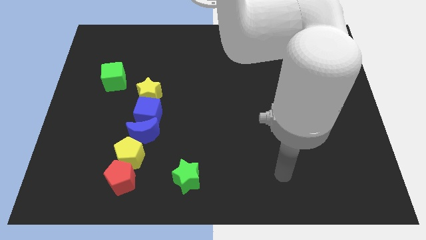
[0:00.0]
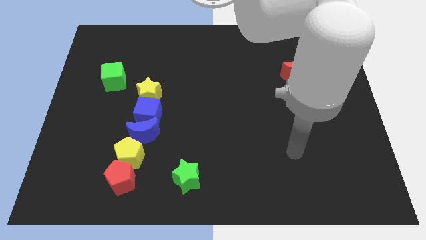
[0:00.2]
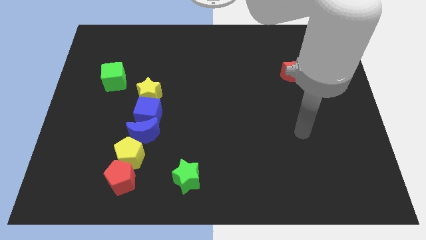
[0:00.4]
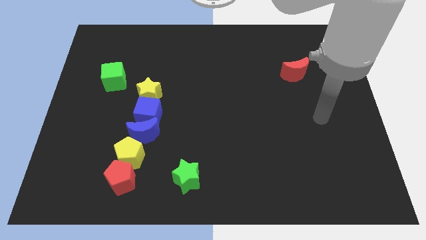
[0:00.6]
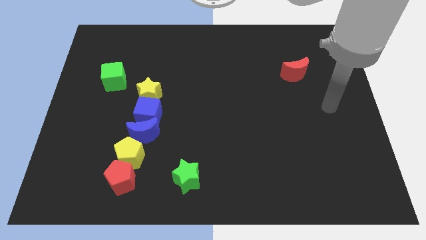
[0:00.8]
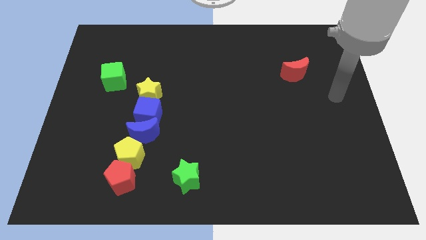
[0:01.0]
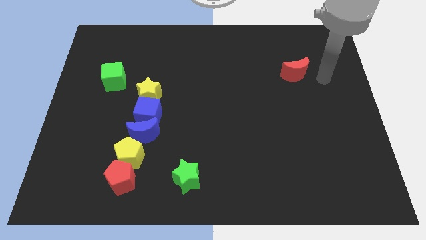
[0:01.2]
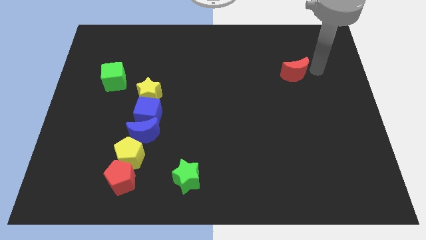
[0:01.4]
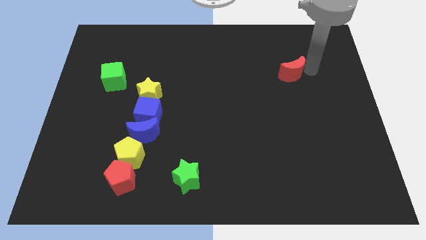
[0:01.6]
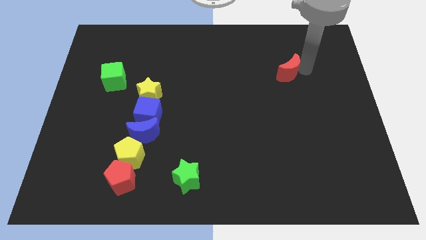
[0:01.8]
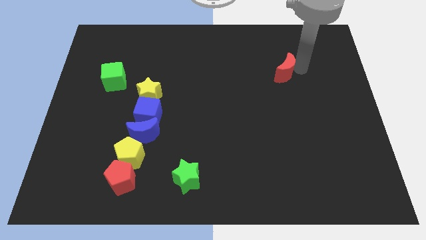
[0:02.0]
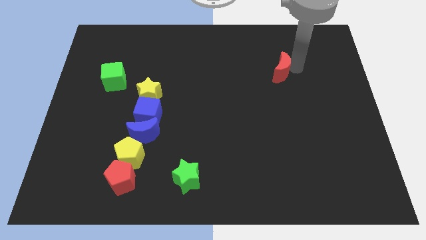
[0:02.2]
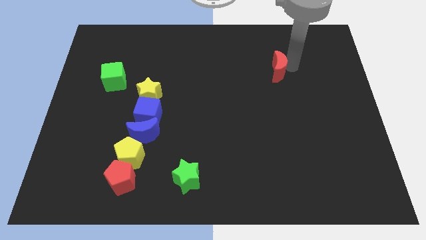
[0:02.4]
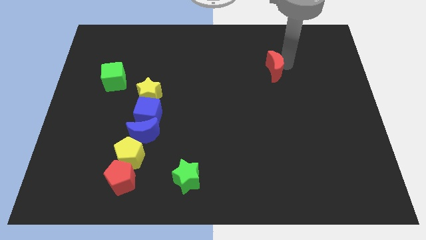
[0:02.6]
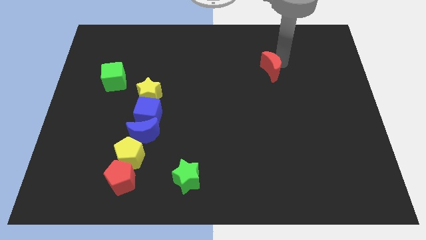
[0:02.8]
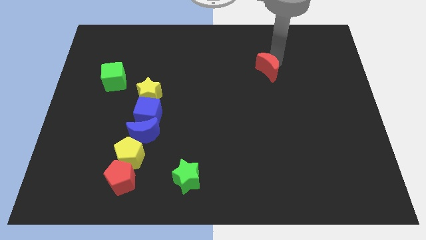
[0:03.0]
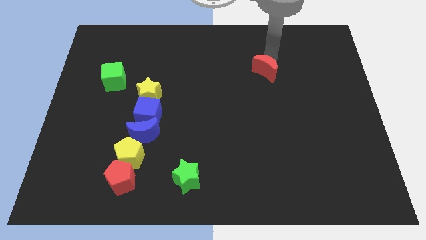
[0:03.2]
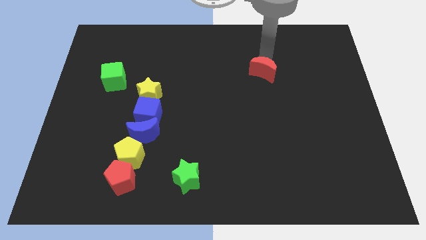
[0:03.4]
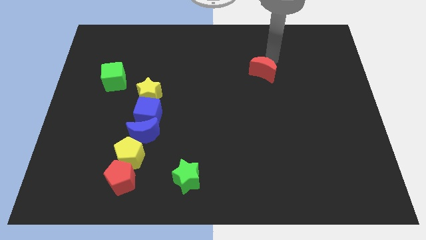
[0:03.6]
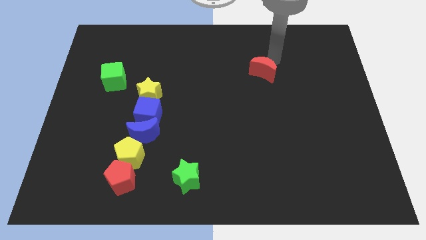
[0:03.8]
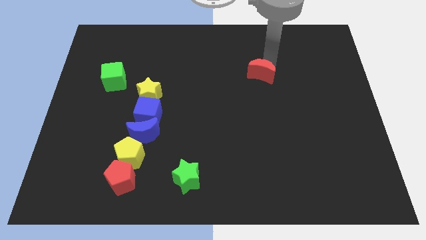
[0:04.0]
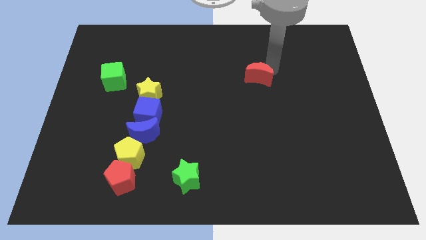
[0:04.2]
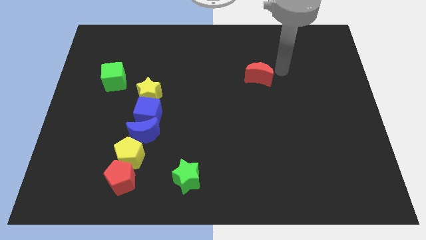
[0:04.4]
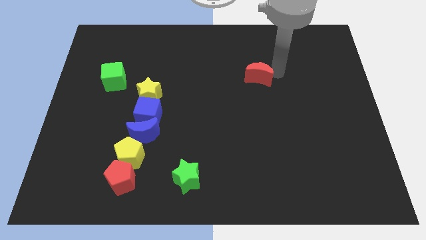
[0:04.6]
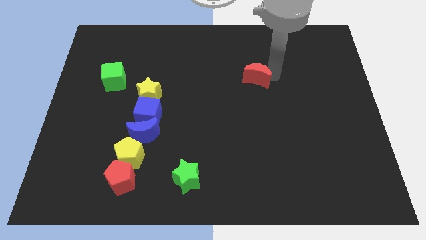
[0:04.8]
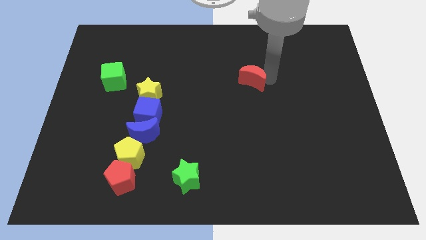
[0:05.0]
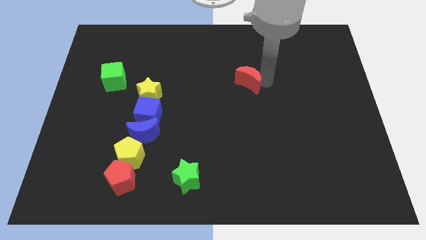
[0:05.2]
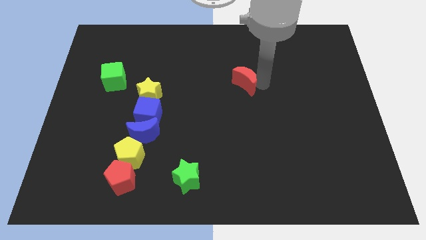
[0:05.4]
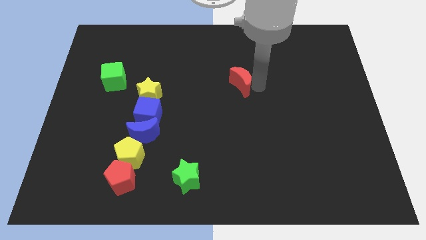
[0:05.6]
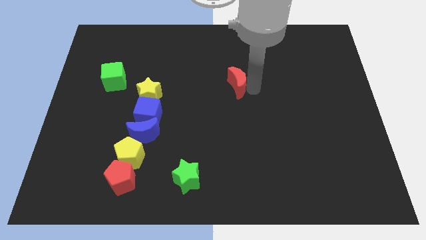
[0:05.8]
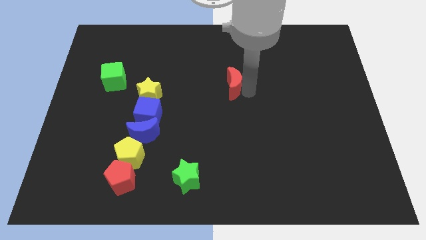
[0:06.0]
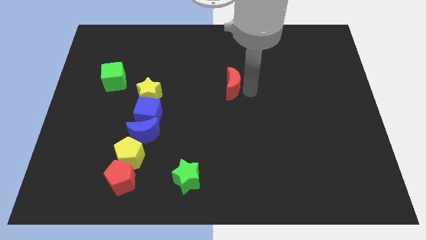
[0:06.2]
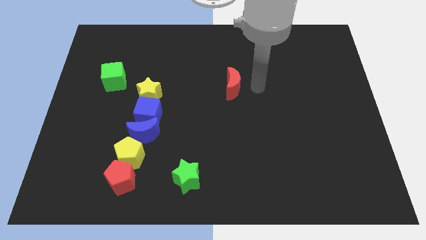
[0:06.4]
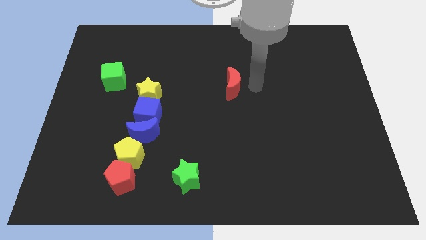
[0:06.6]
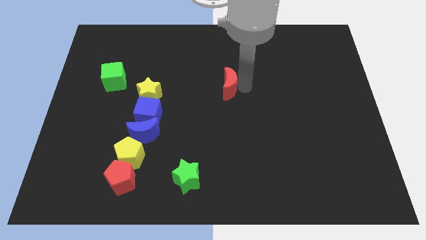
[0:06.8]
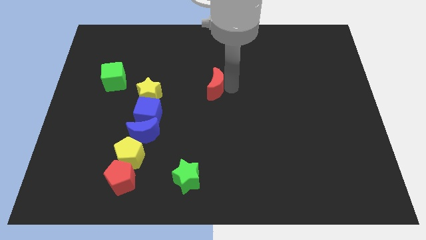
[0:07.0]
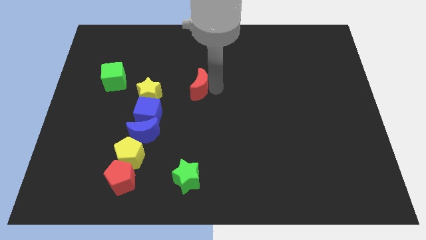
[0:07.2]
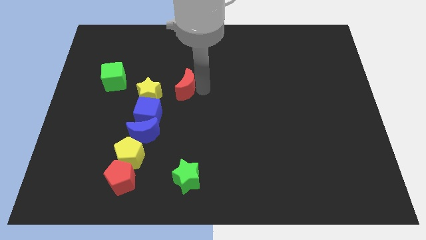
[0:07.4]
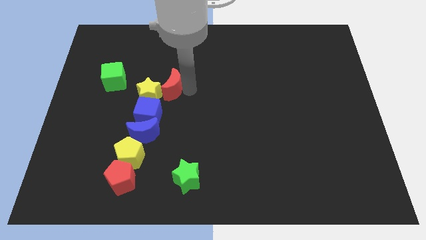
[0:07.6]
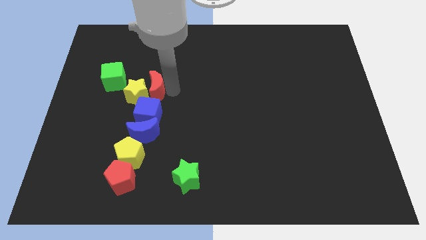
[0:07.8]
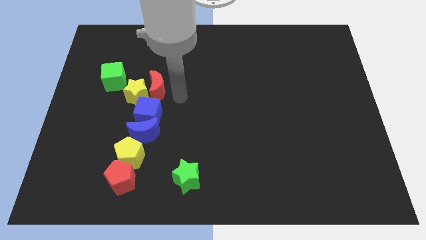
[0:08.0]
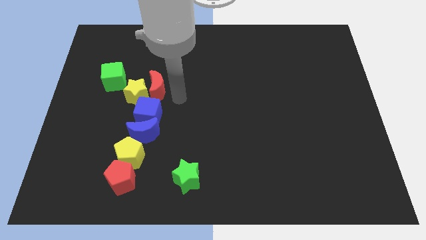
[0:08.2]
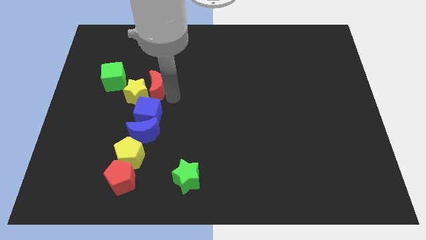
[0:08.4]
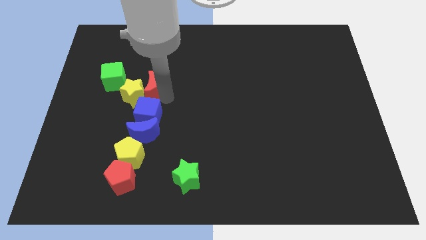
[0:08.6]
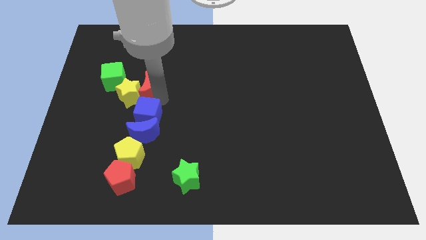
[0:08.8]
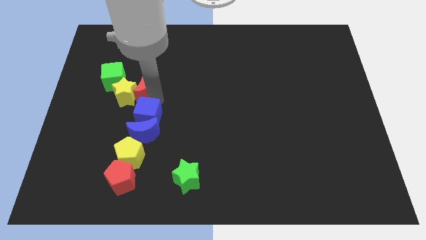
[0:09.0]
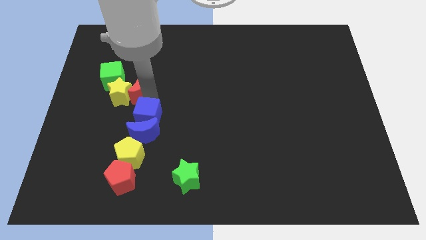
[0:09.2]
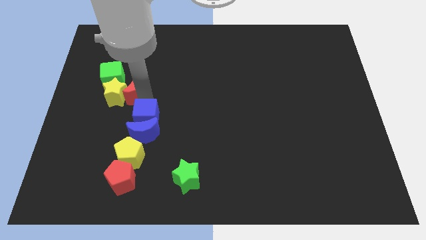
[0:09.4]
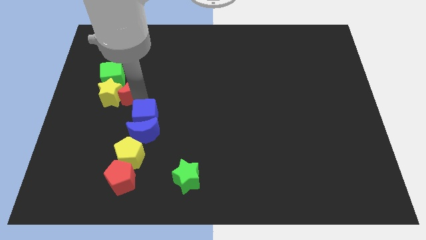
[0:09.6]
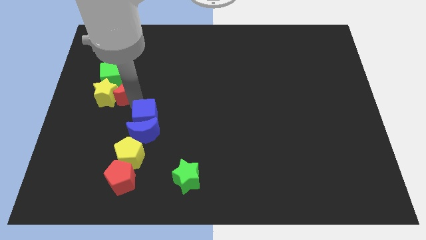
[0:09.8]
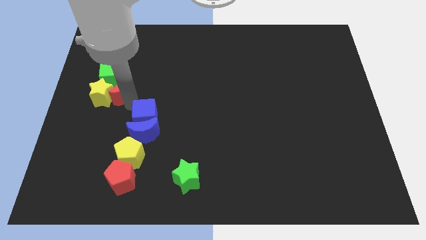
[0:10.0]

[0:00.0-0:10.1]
slide the red moon close to the green cube

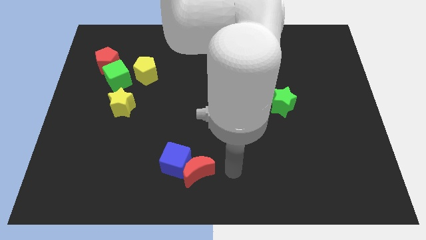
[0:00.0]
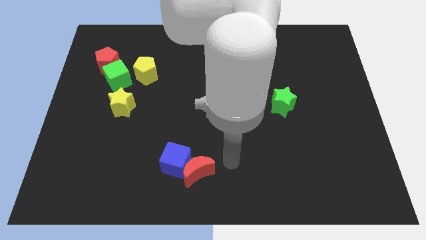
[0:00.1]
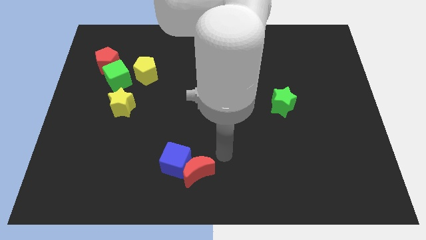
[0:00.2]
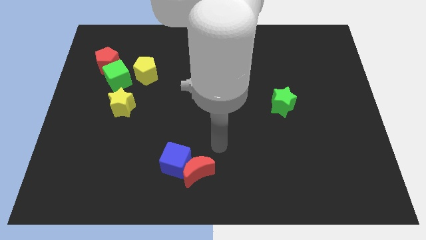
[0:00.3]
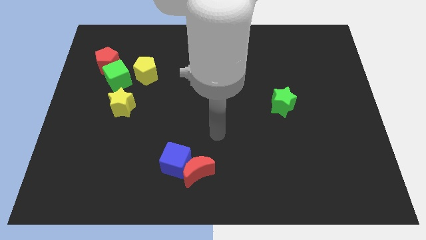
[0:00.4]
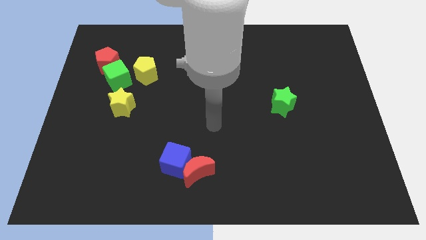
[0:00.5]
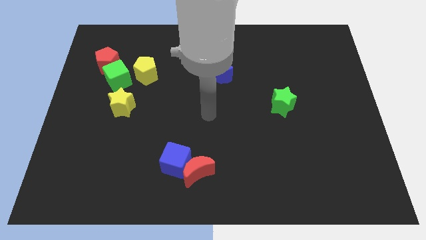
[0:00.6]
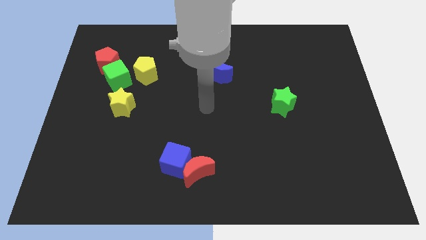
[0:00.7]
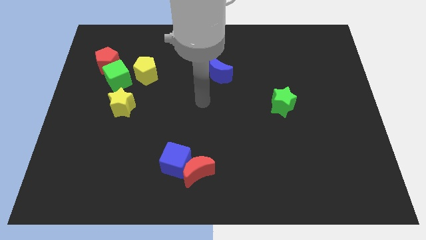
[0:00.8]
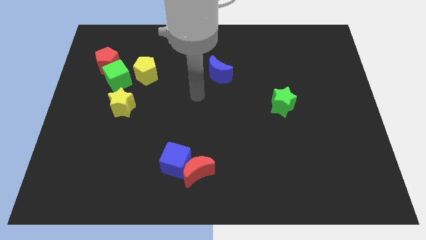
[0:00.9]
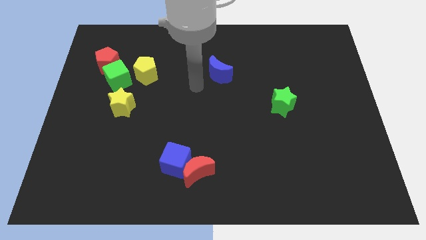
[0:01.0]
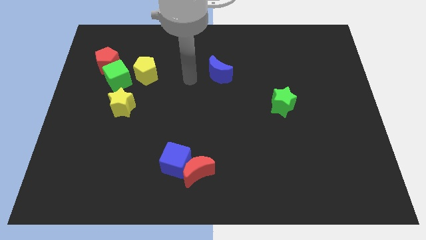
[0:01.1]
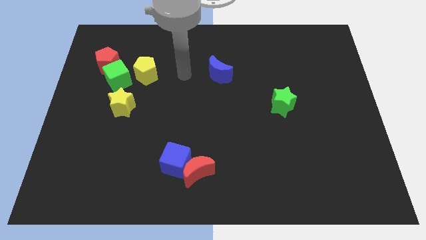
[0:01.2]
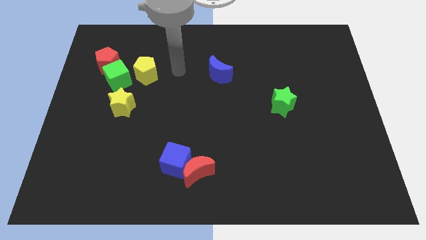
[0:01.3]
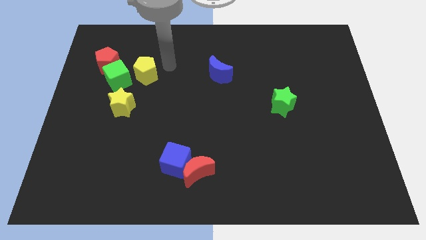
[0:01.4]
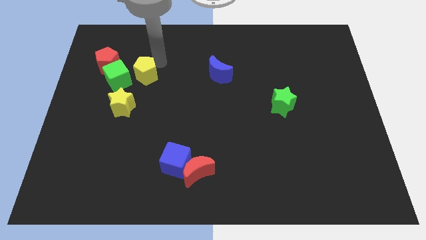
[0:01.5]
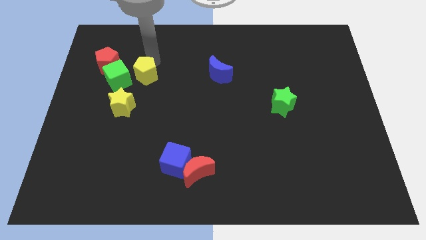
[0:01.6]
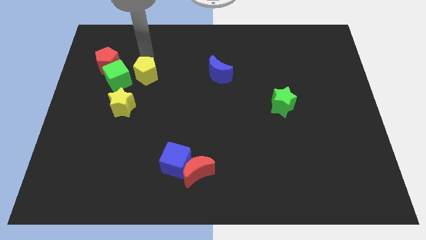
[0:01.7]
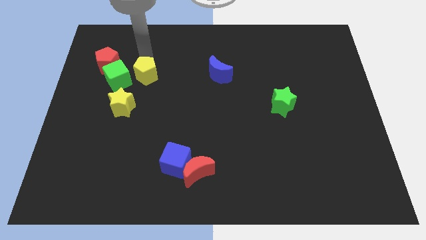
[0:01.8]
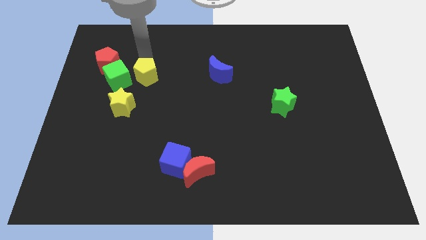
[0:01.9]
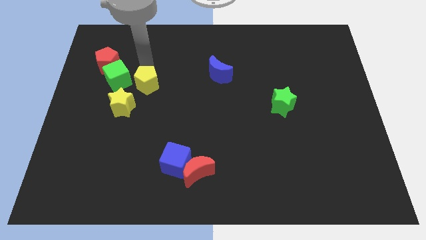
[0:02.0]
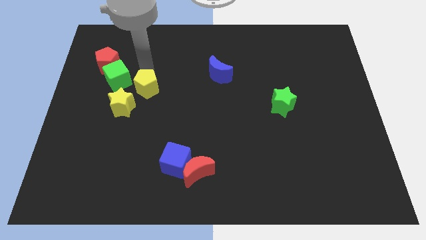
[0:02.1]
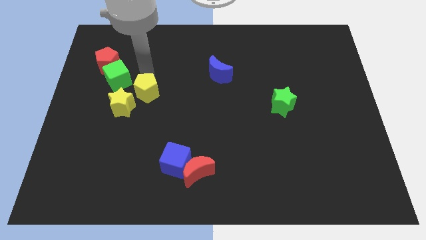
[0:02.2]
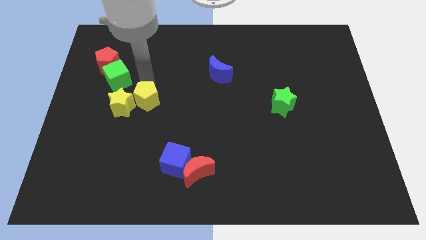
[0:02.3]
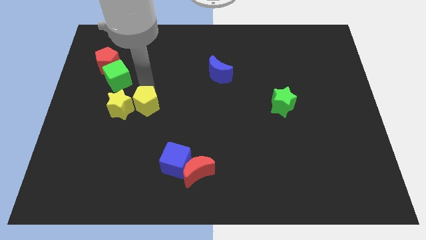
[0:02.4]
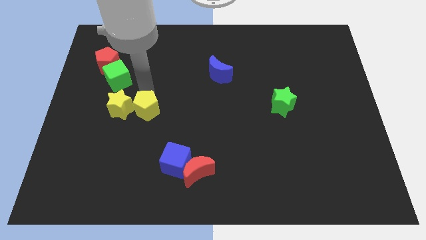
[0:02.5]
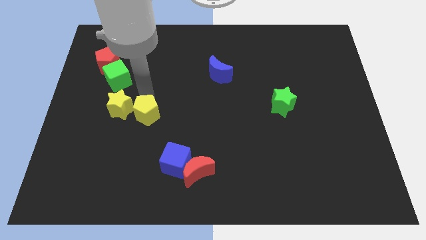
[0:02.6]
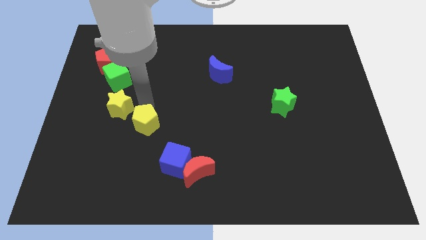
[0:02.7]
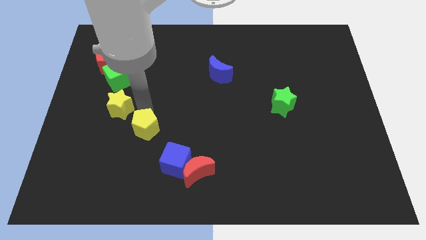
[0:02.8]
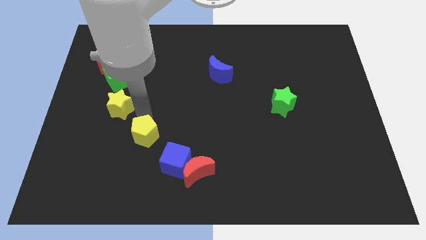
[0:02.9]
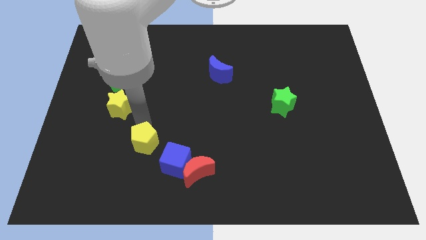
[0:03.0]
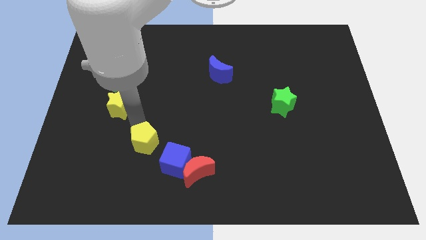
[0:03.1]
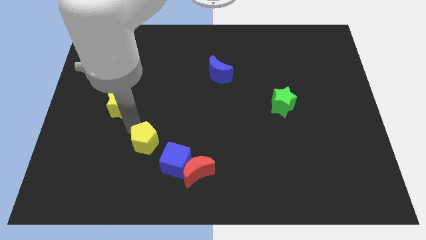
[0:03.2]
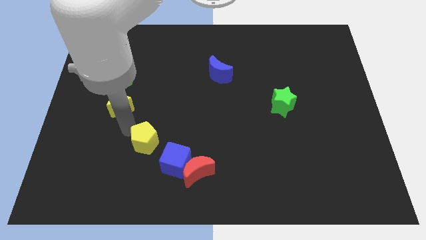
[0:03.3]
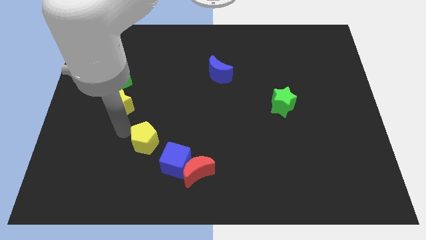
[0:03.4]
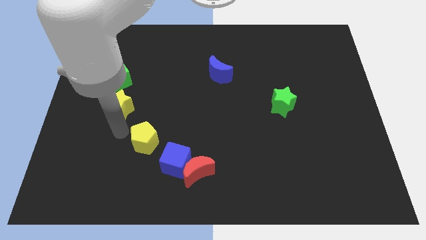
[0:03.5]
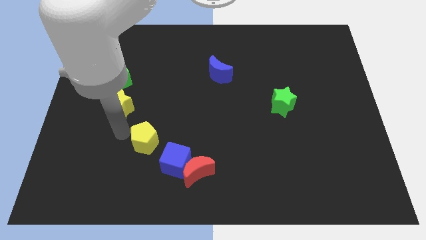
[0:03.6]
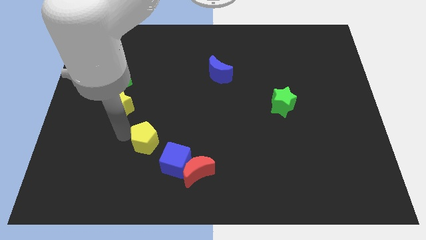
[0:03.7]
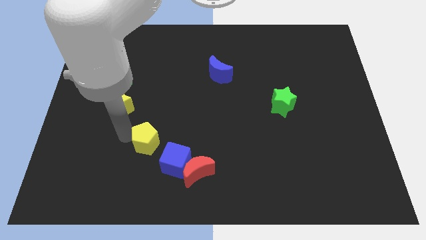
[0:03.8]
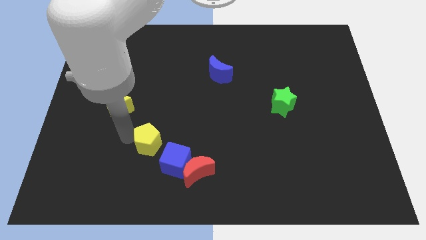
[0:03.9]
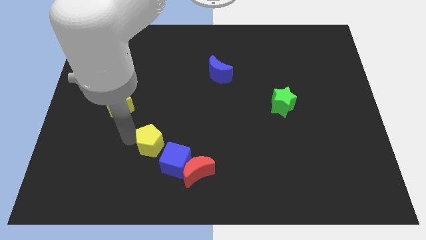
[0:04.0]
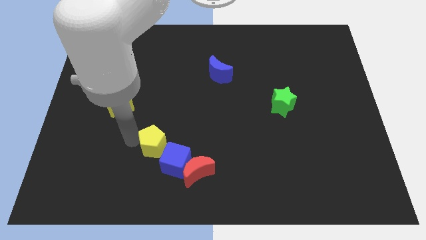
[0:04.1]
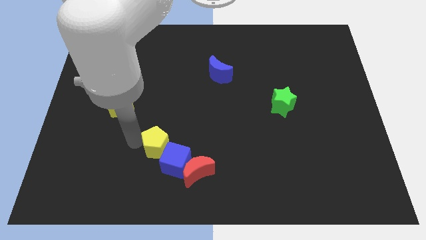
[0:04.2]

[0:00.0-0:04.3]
slide the yellow pentagon to the blue cube
